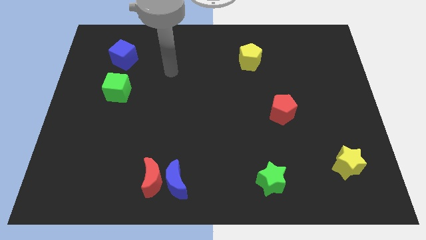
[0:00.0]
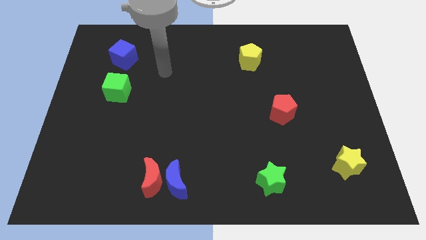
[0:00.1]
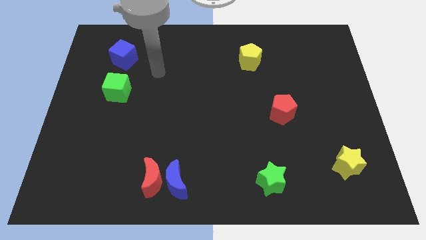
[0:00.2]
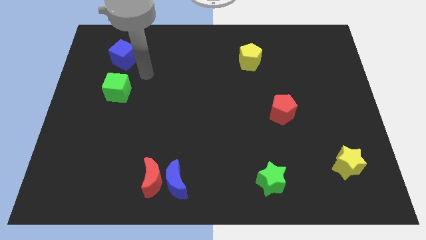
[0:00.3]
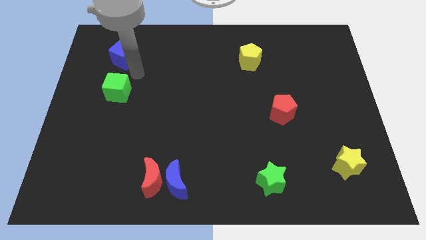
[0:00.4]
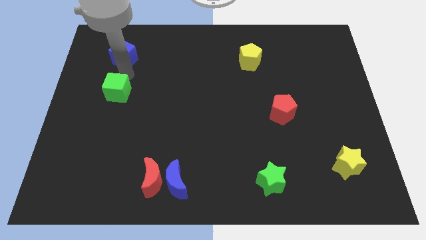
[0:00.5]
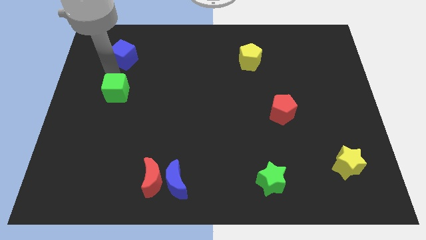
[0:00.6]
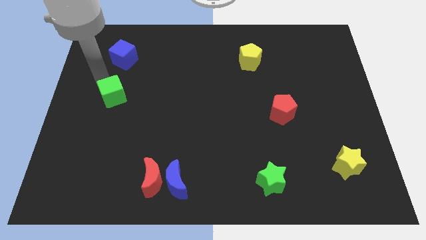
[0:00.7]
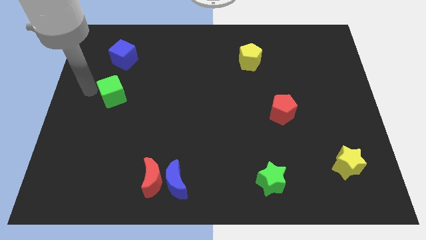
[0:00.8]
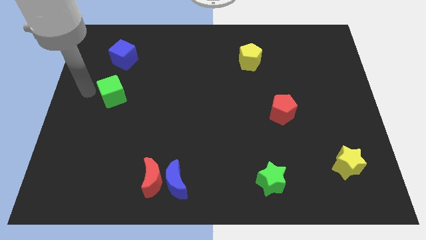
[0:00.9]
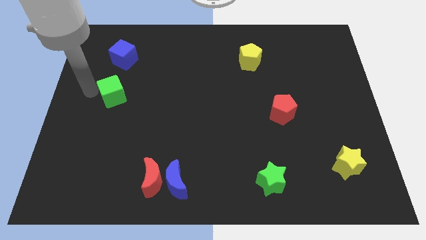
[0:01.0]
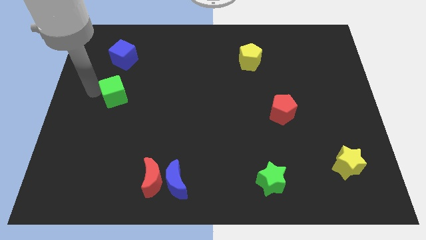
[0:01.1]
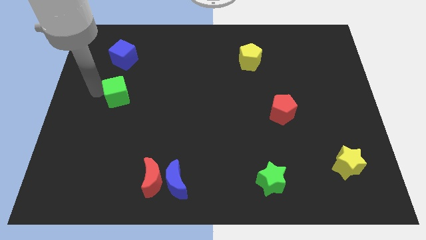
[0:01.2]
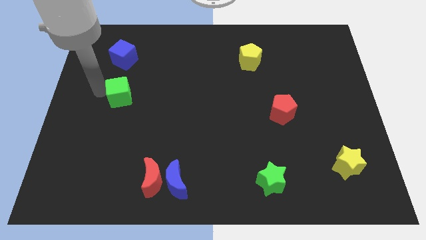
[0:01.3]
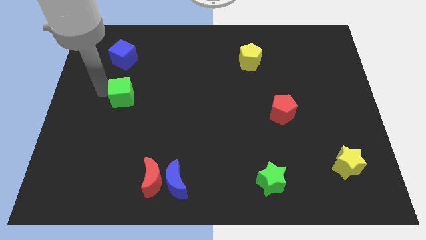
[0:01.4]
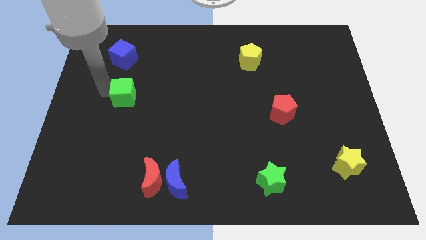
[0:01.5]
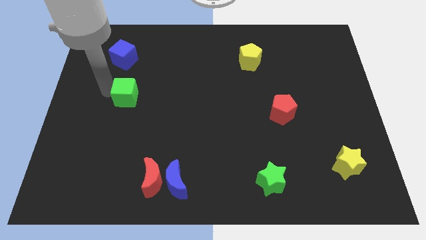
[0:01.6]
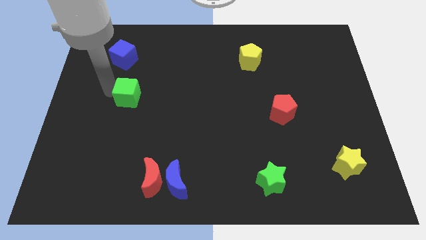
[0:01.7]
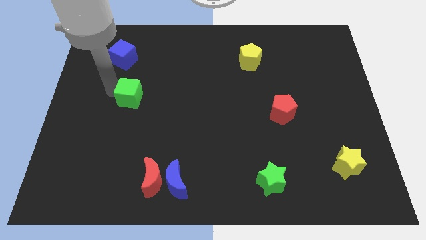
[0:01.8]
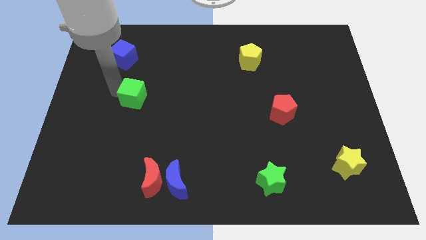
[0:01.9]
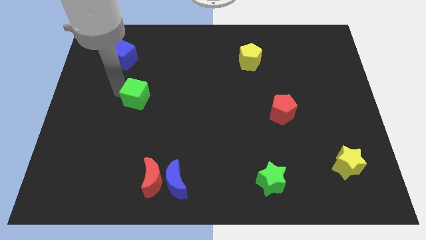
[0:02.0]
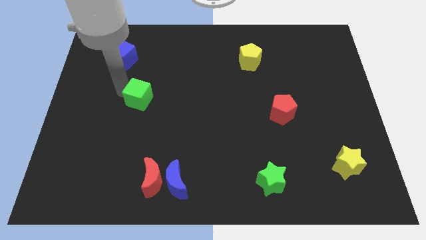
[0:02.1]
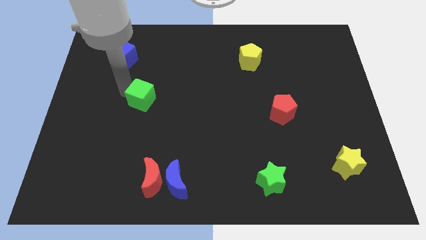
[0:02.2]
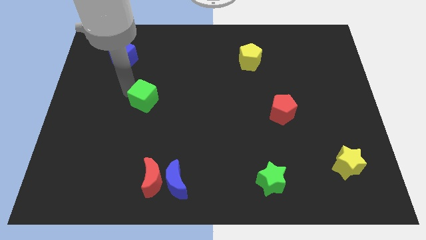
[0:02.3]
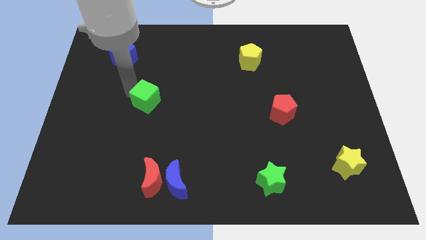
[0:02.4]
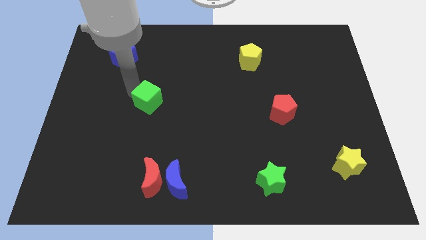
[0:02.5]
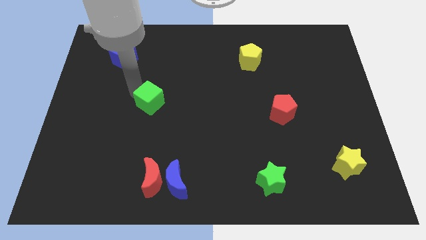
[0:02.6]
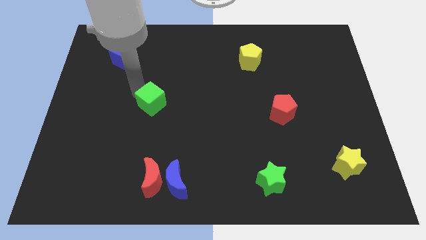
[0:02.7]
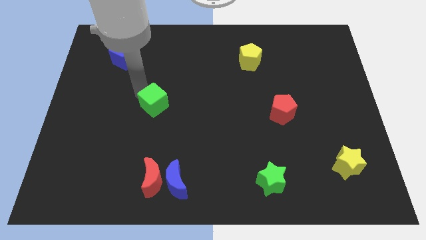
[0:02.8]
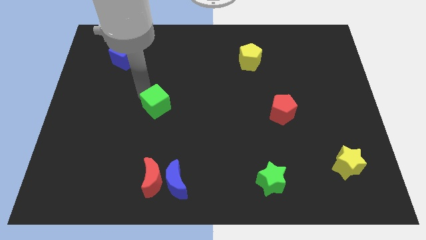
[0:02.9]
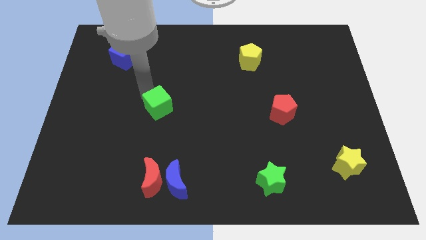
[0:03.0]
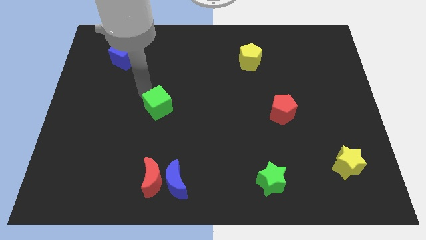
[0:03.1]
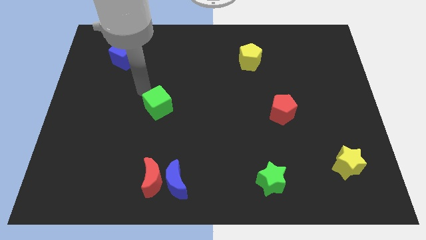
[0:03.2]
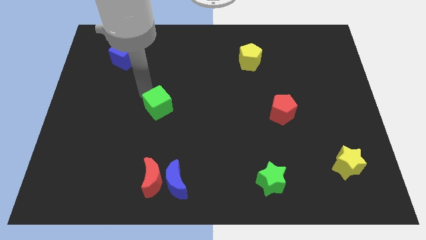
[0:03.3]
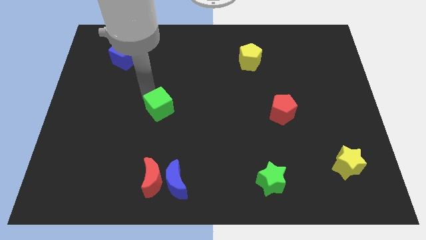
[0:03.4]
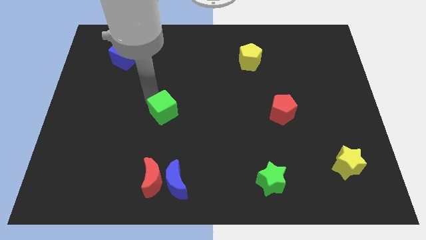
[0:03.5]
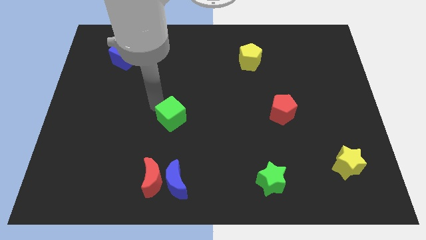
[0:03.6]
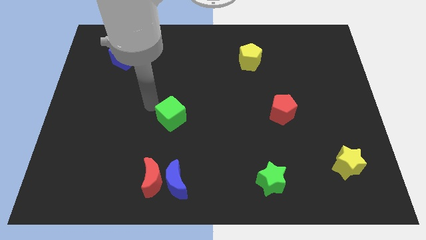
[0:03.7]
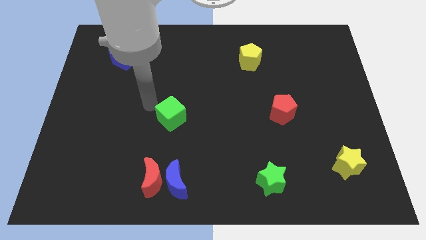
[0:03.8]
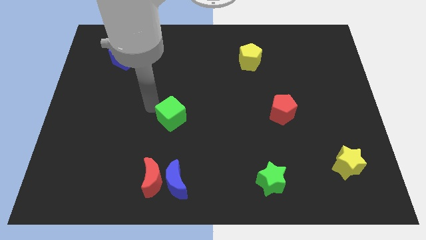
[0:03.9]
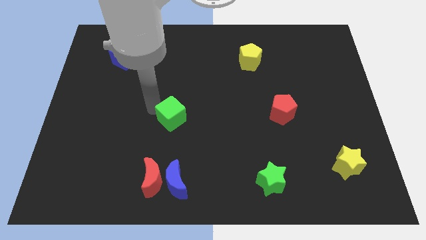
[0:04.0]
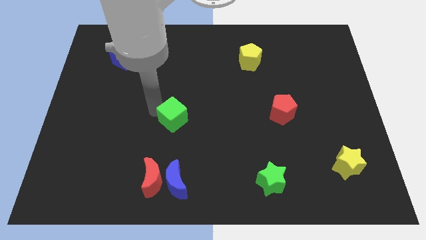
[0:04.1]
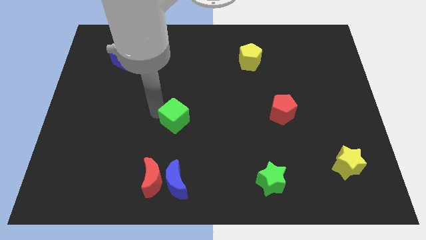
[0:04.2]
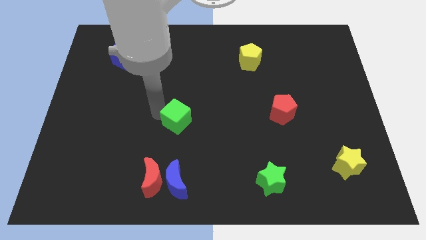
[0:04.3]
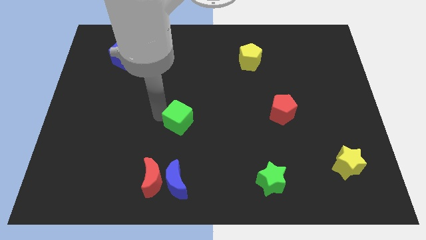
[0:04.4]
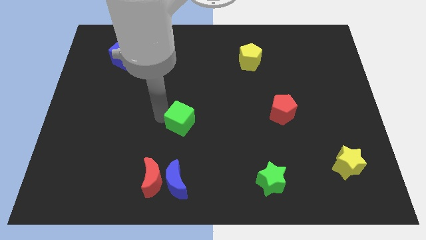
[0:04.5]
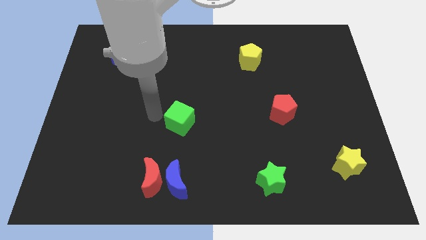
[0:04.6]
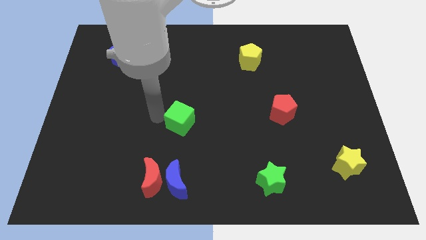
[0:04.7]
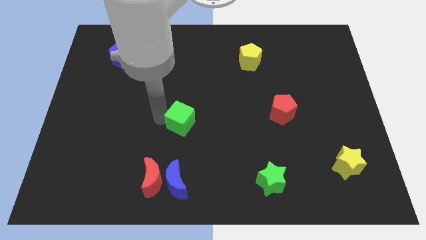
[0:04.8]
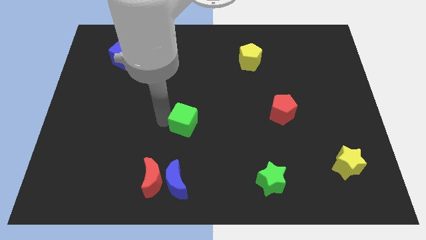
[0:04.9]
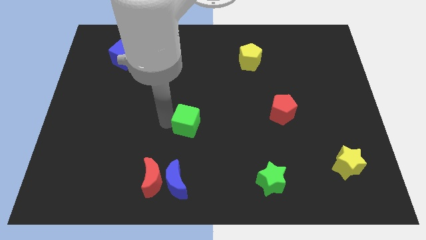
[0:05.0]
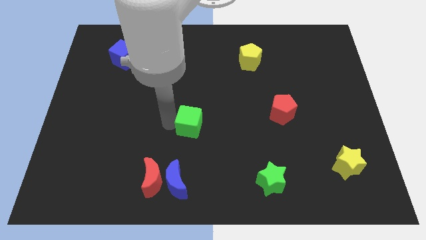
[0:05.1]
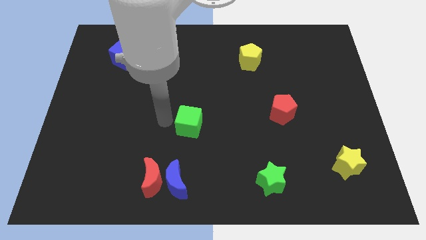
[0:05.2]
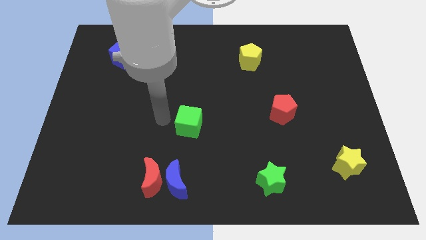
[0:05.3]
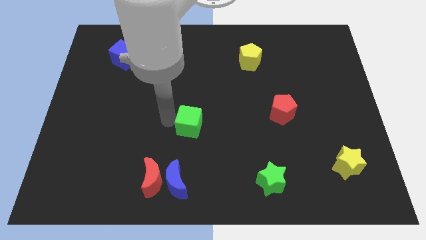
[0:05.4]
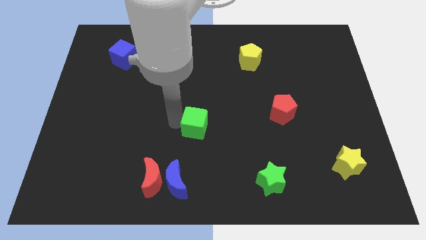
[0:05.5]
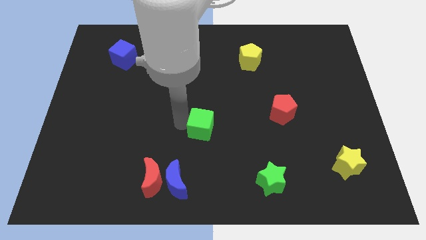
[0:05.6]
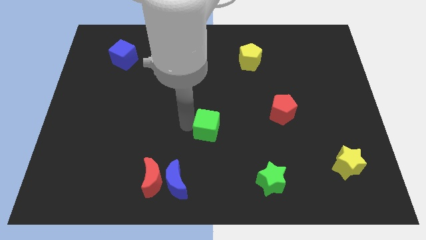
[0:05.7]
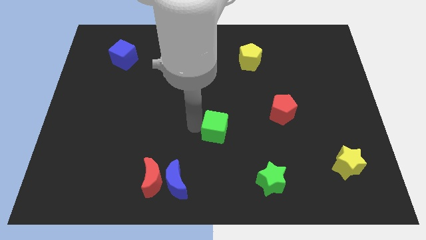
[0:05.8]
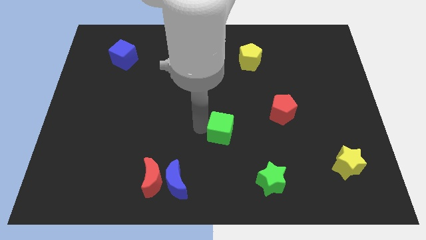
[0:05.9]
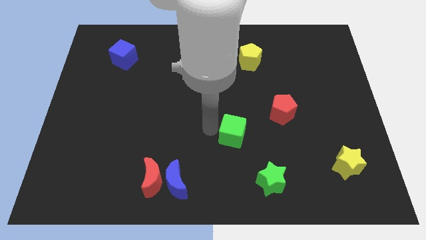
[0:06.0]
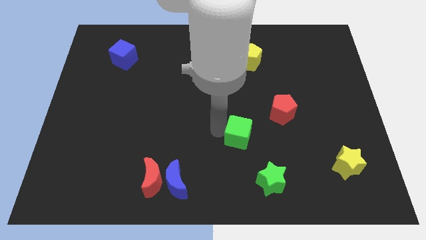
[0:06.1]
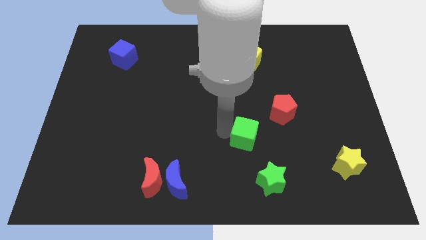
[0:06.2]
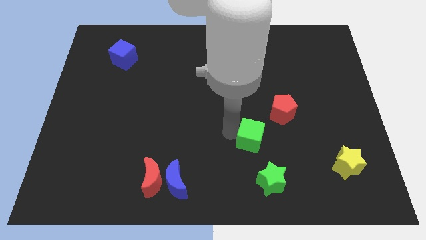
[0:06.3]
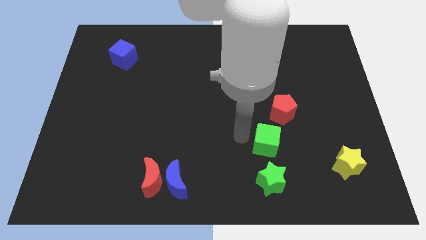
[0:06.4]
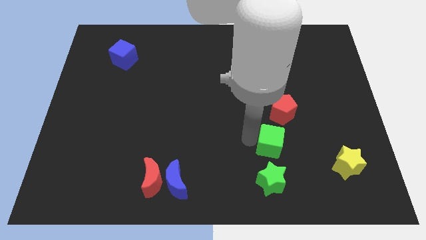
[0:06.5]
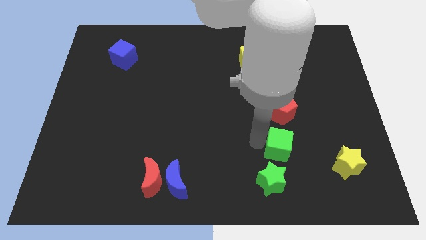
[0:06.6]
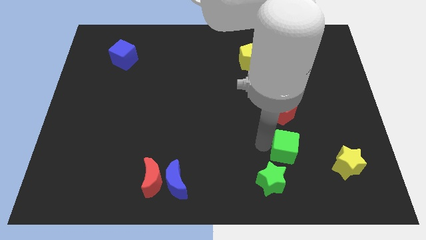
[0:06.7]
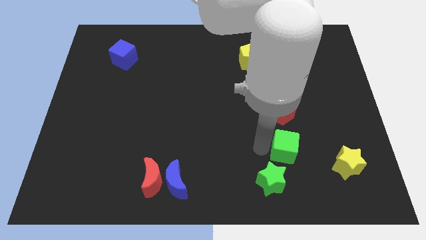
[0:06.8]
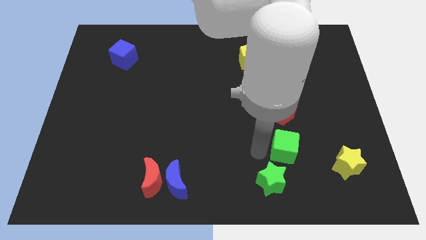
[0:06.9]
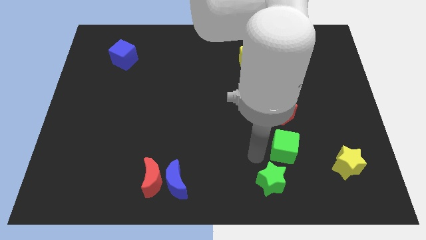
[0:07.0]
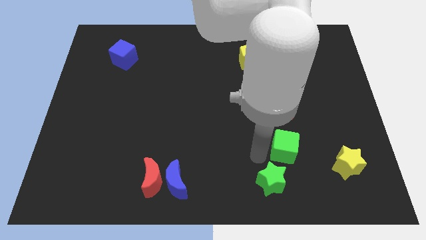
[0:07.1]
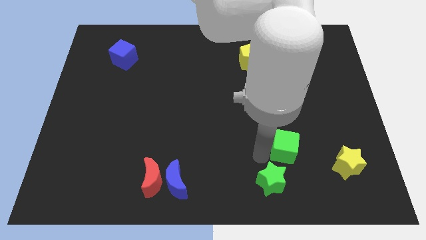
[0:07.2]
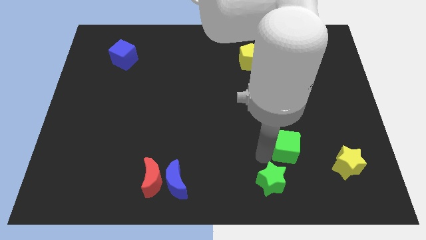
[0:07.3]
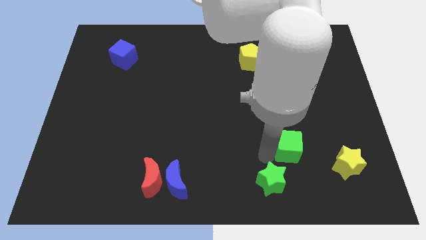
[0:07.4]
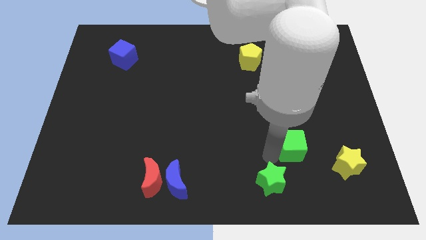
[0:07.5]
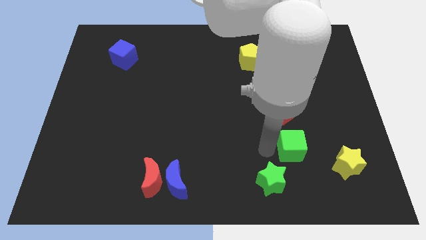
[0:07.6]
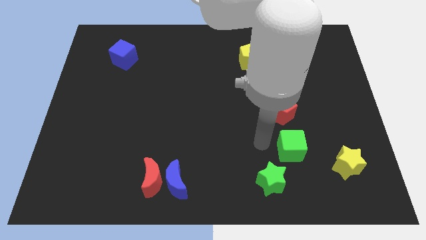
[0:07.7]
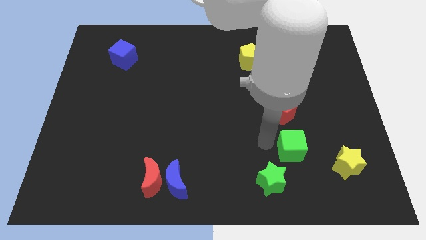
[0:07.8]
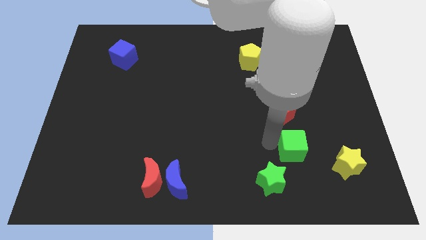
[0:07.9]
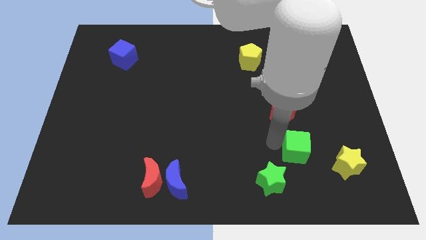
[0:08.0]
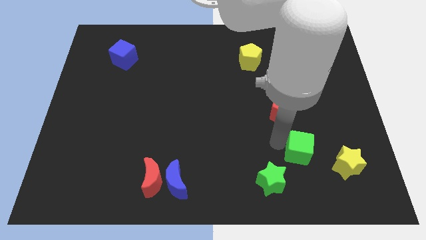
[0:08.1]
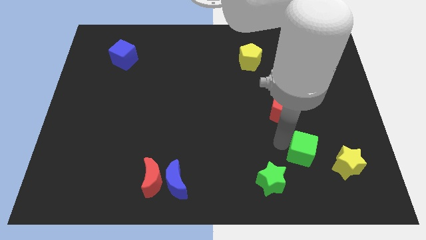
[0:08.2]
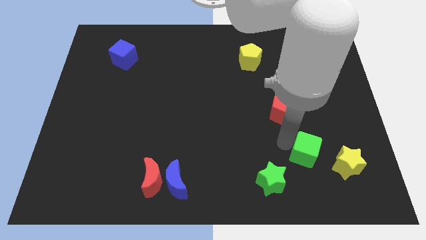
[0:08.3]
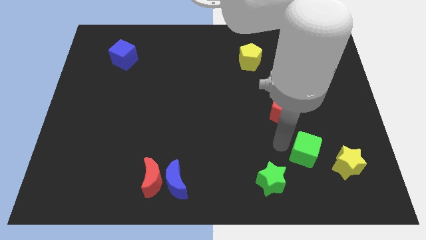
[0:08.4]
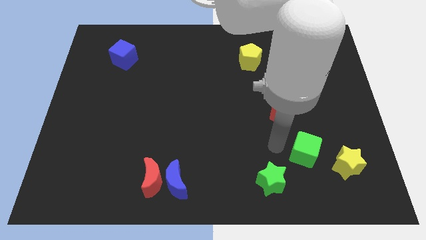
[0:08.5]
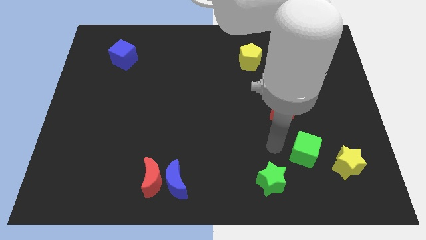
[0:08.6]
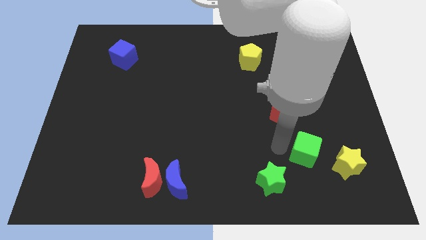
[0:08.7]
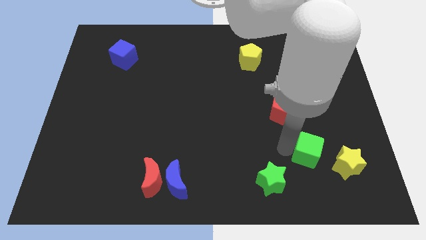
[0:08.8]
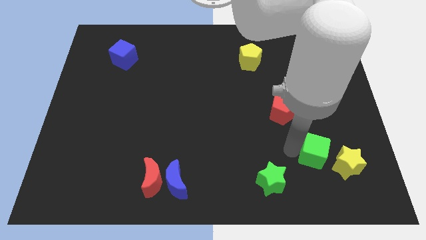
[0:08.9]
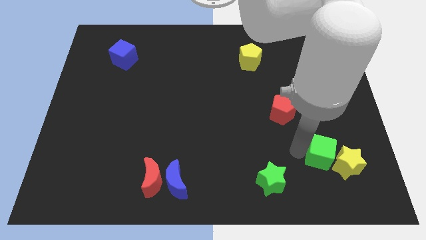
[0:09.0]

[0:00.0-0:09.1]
move the green cube next to the yellow star
